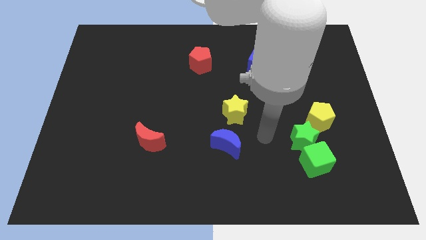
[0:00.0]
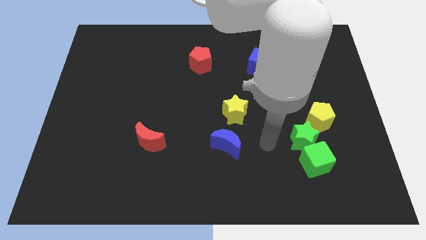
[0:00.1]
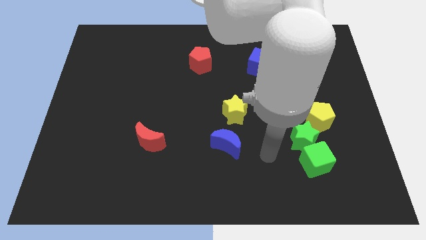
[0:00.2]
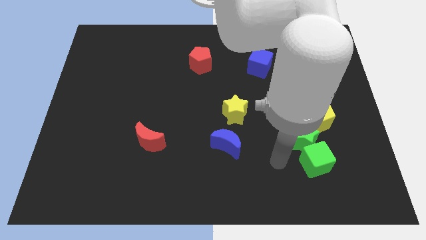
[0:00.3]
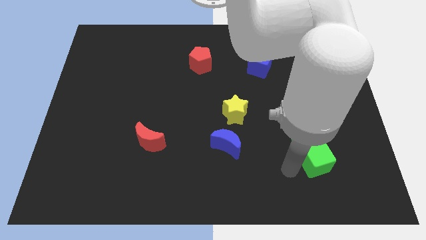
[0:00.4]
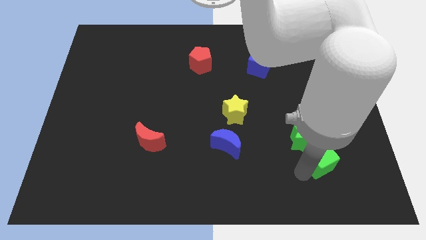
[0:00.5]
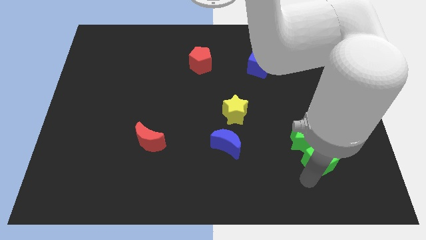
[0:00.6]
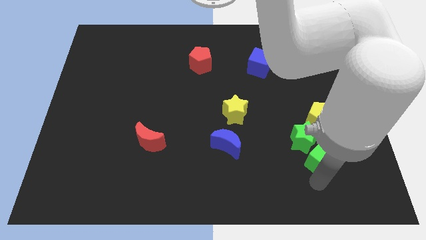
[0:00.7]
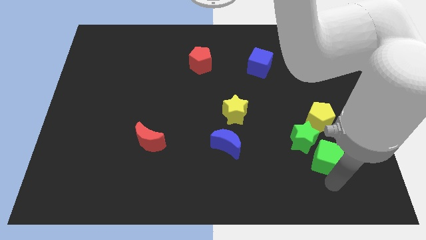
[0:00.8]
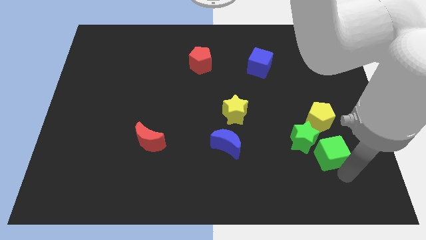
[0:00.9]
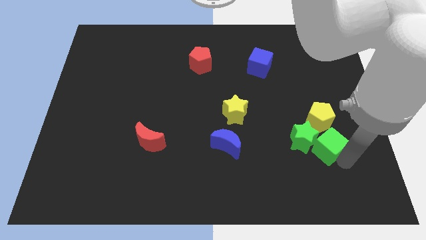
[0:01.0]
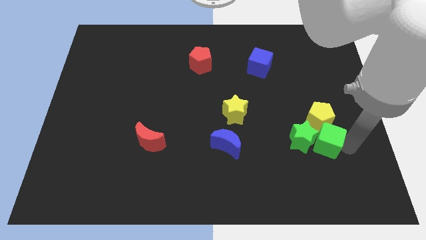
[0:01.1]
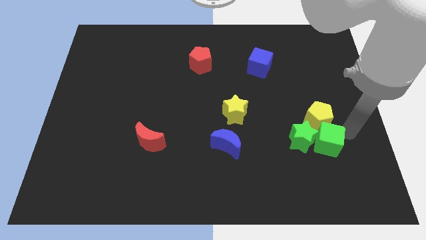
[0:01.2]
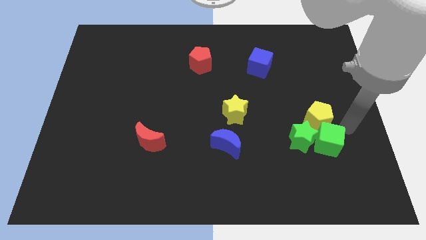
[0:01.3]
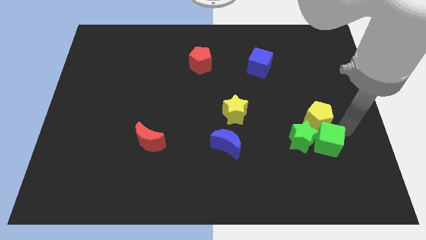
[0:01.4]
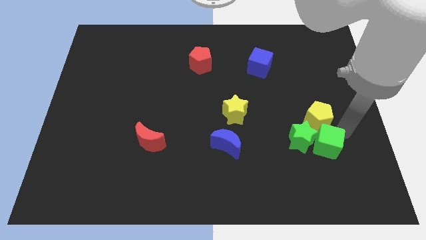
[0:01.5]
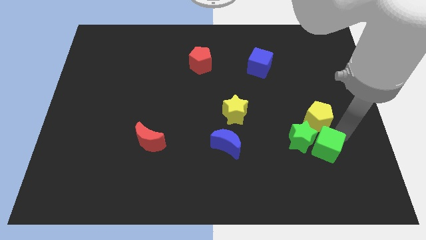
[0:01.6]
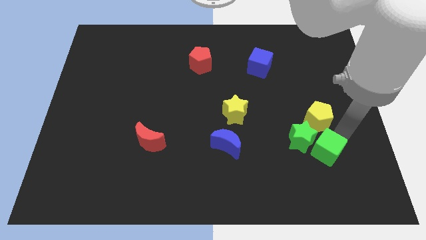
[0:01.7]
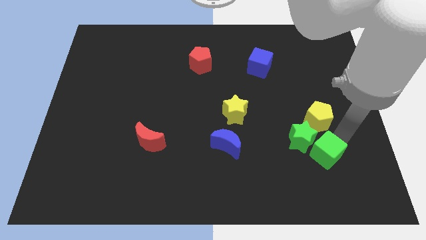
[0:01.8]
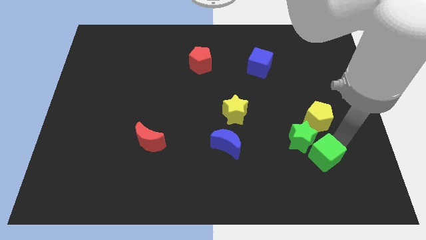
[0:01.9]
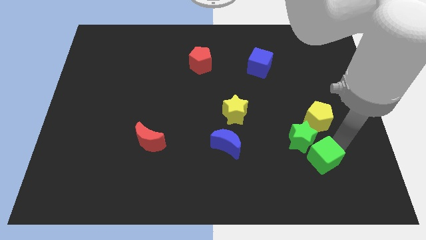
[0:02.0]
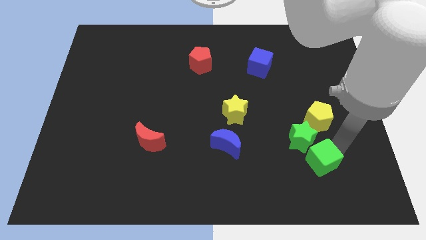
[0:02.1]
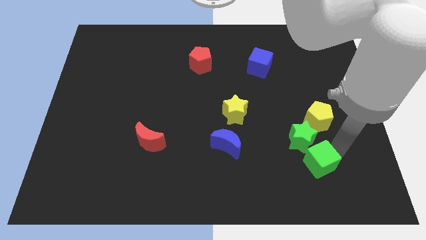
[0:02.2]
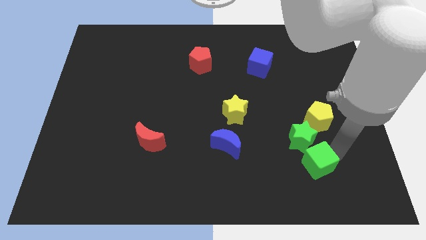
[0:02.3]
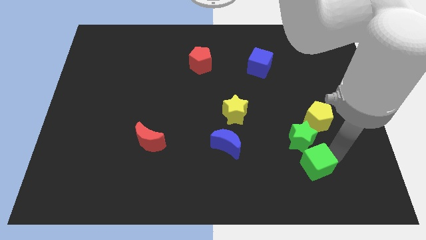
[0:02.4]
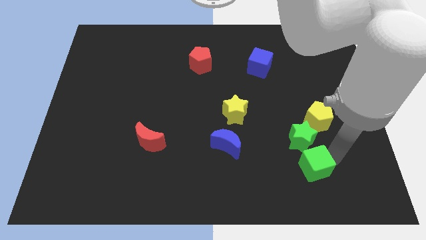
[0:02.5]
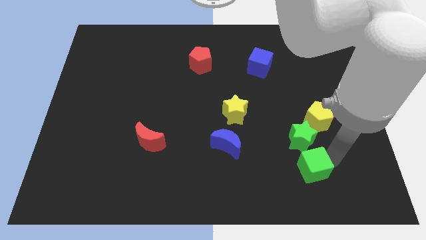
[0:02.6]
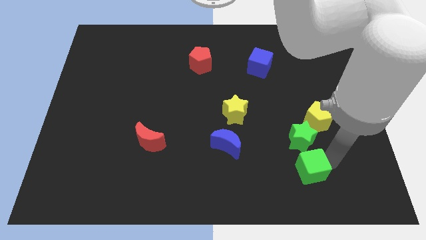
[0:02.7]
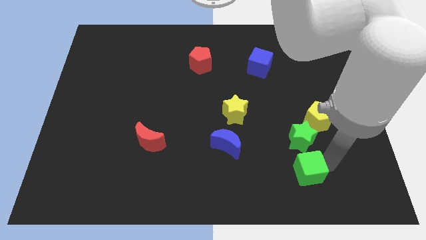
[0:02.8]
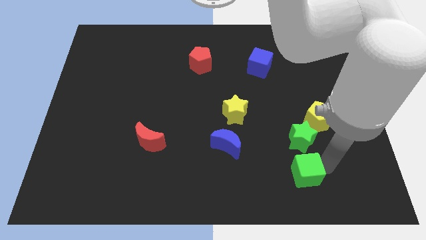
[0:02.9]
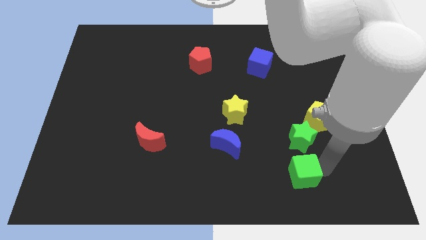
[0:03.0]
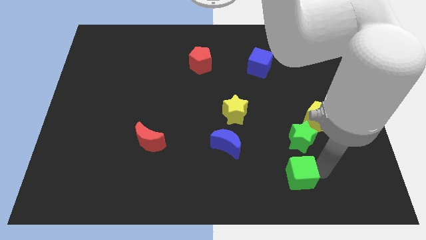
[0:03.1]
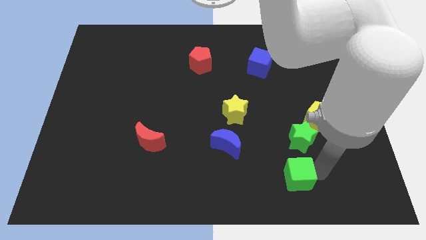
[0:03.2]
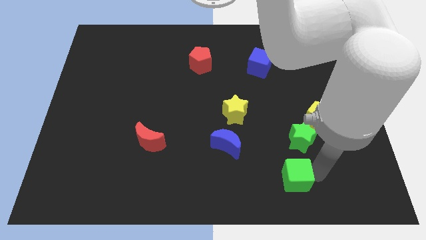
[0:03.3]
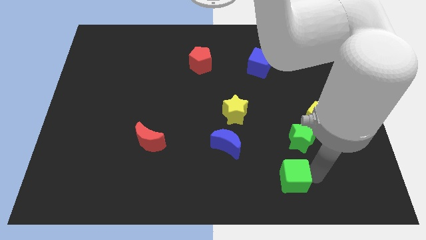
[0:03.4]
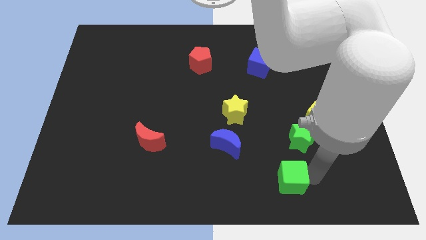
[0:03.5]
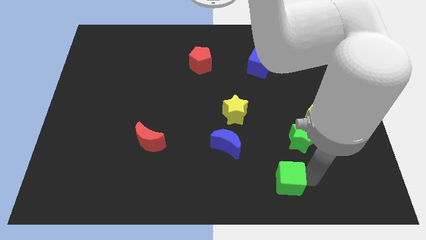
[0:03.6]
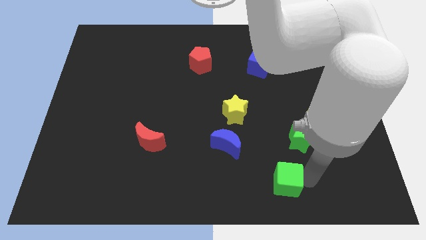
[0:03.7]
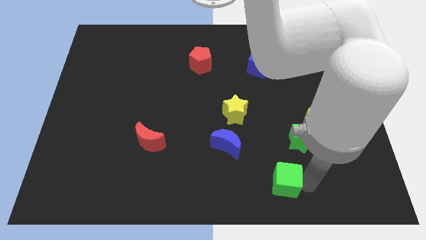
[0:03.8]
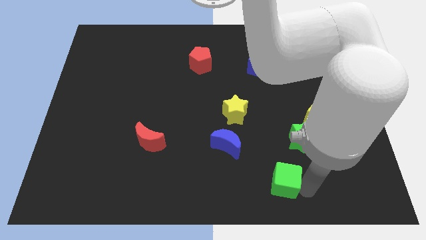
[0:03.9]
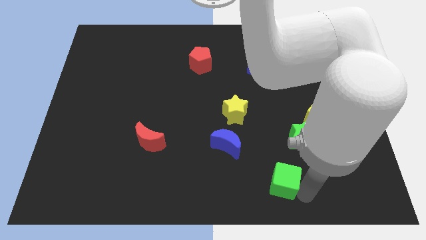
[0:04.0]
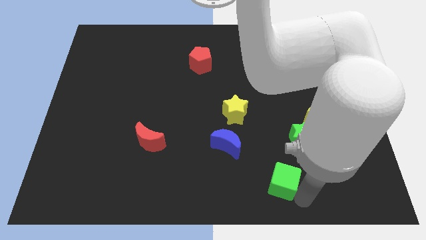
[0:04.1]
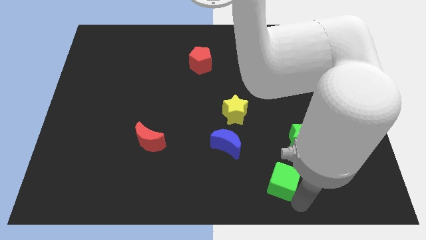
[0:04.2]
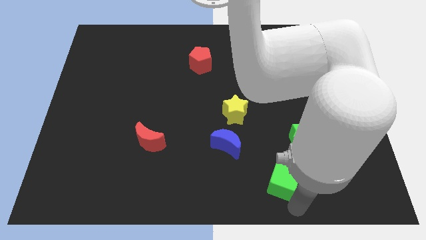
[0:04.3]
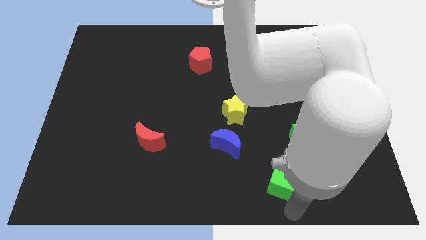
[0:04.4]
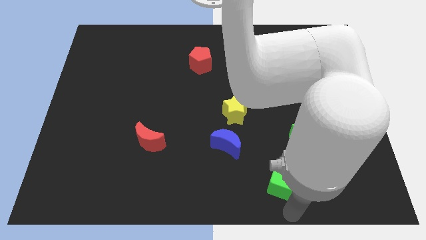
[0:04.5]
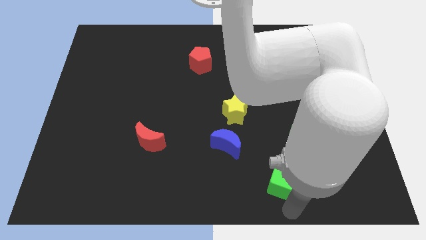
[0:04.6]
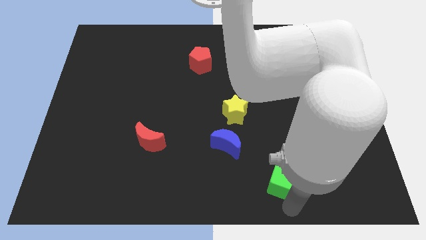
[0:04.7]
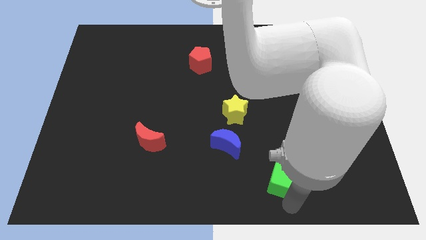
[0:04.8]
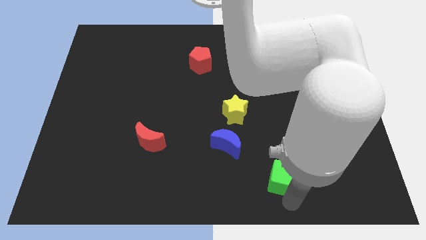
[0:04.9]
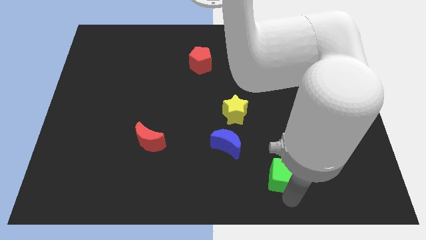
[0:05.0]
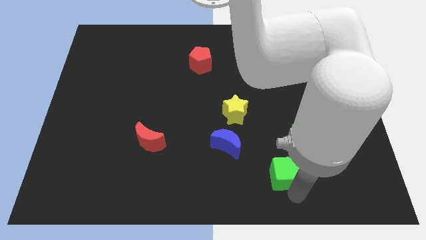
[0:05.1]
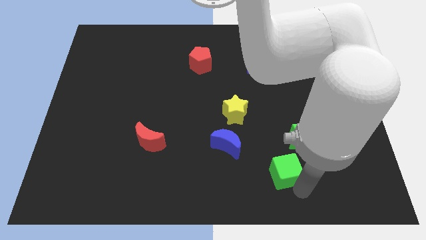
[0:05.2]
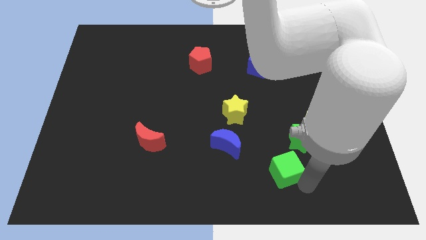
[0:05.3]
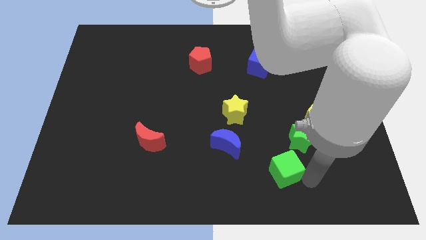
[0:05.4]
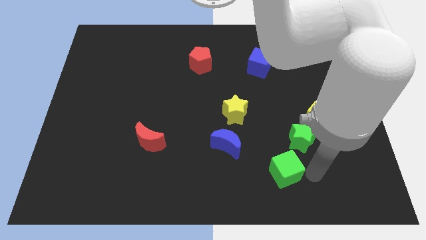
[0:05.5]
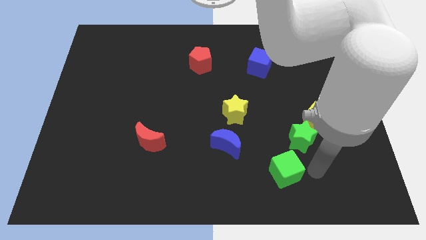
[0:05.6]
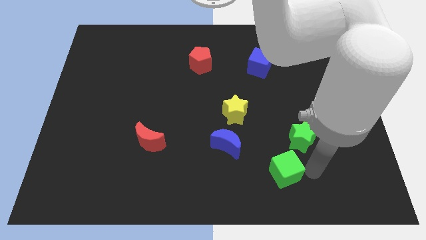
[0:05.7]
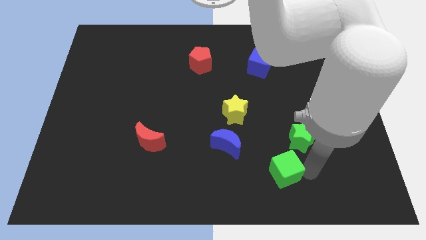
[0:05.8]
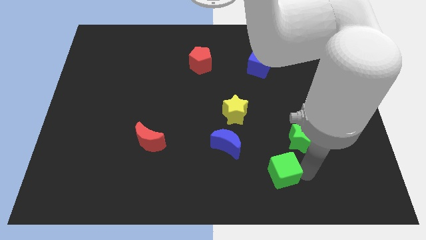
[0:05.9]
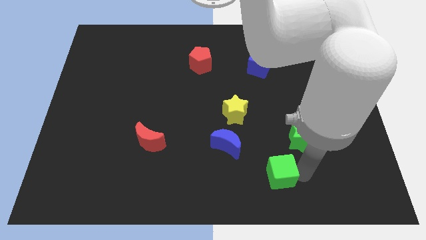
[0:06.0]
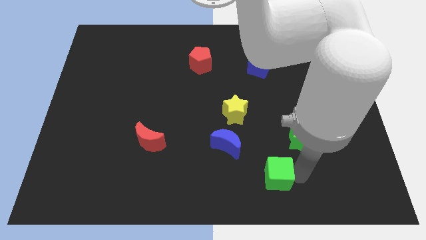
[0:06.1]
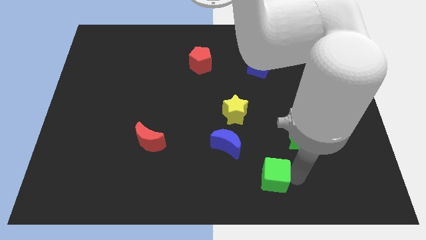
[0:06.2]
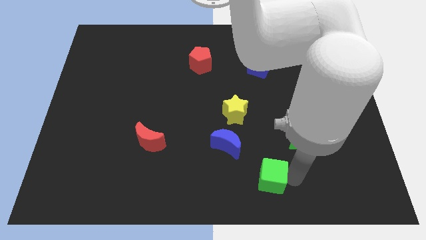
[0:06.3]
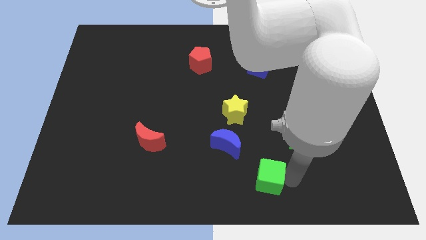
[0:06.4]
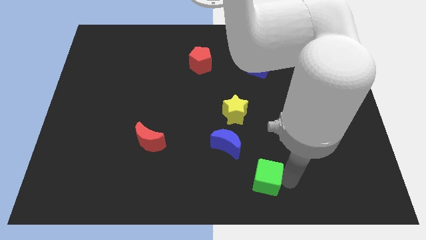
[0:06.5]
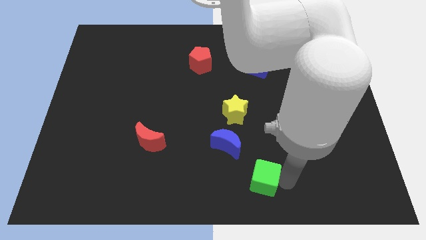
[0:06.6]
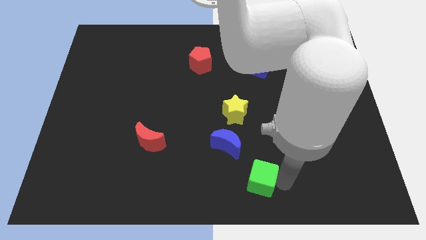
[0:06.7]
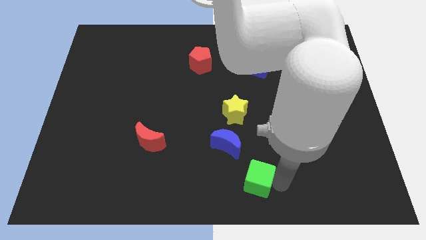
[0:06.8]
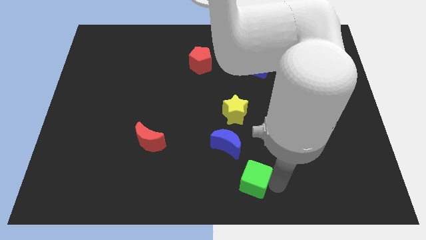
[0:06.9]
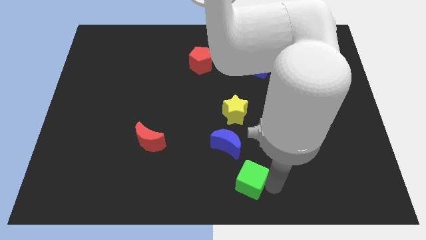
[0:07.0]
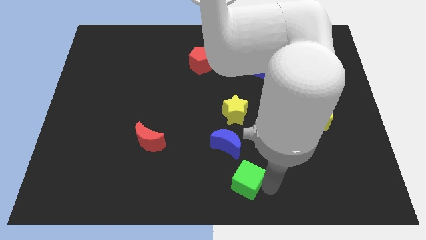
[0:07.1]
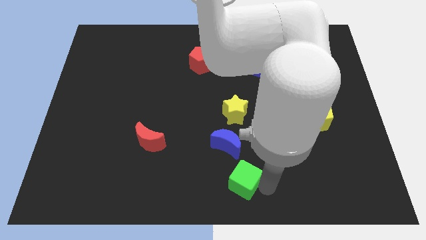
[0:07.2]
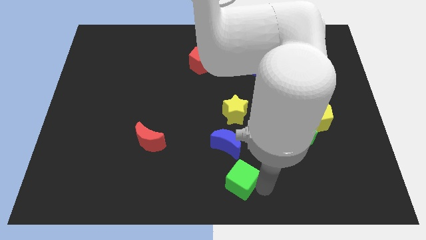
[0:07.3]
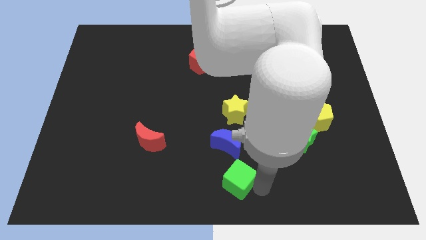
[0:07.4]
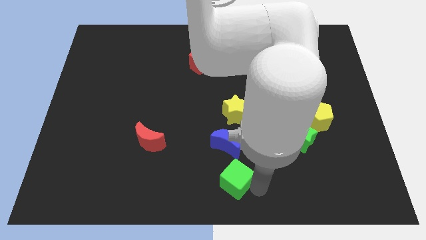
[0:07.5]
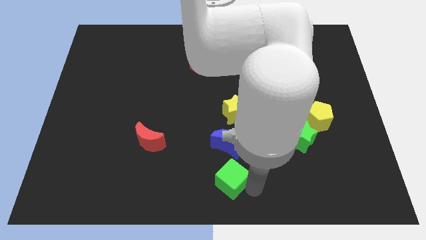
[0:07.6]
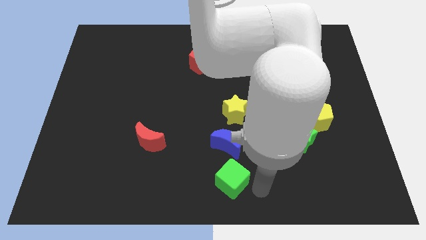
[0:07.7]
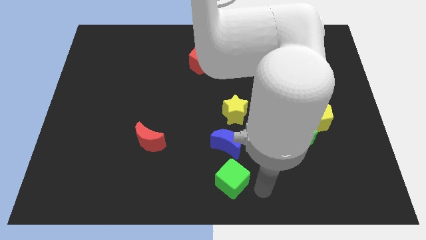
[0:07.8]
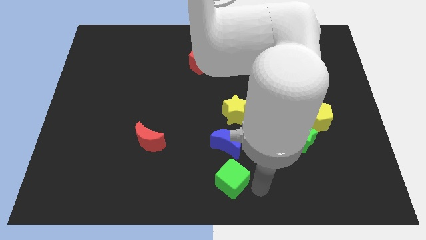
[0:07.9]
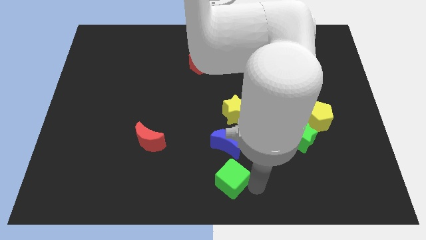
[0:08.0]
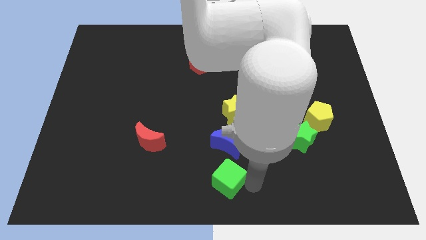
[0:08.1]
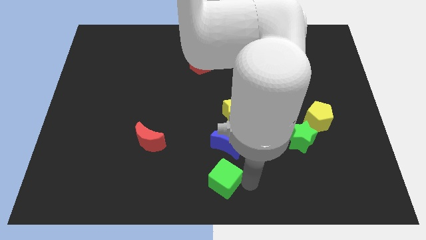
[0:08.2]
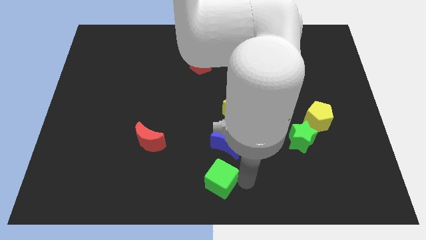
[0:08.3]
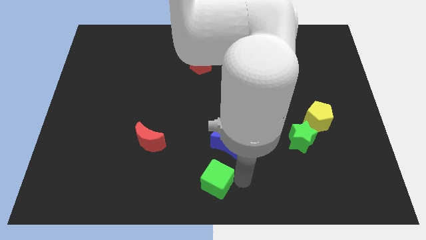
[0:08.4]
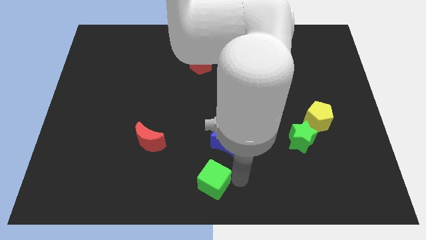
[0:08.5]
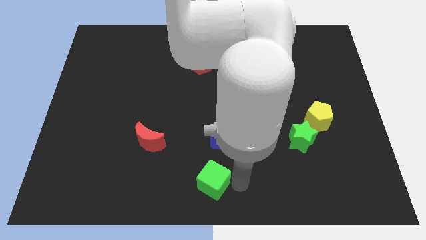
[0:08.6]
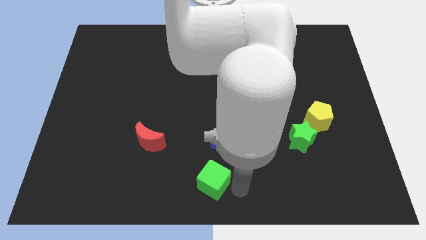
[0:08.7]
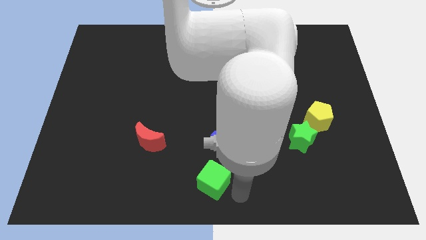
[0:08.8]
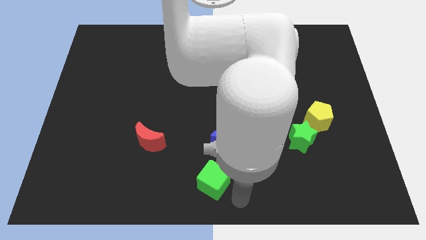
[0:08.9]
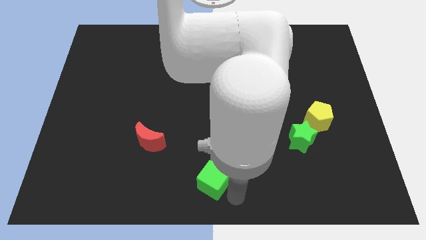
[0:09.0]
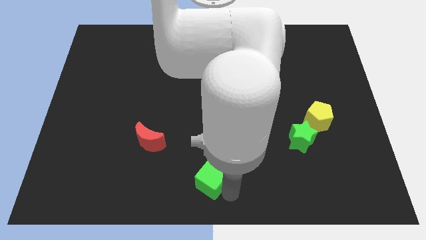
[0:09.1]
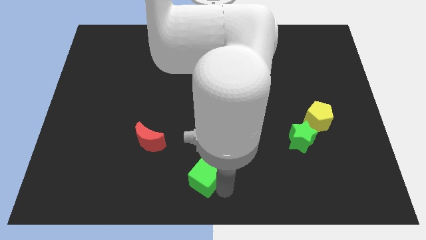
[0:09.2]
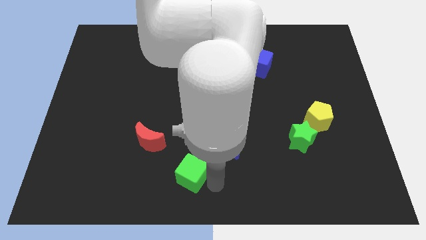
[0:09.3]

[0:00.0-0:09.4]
put the green cube to the bottom right of the red moon
